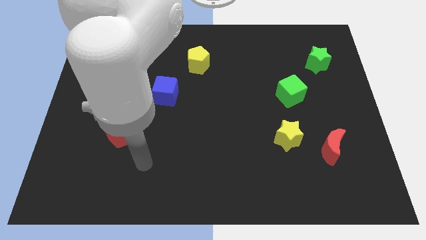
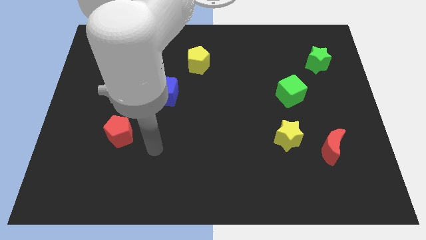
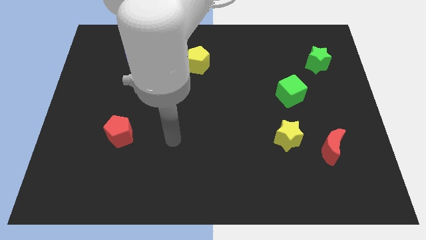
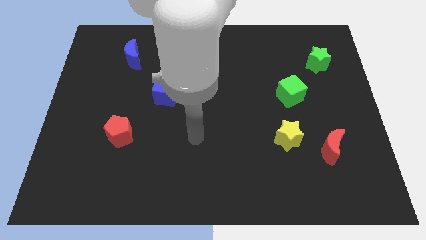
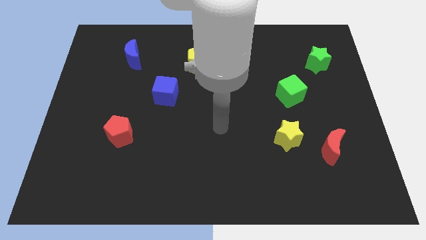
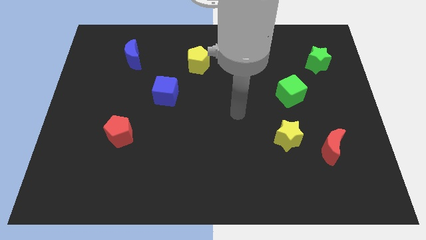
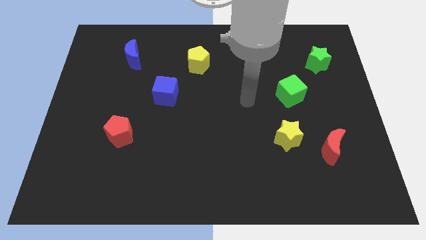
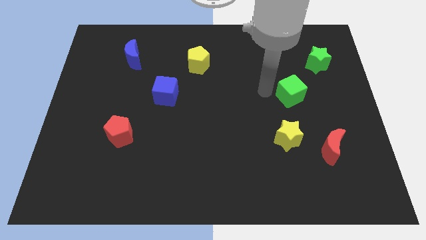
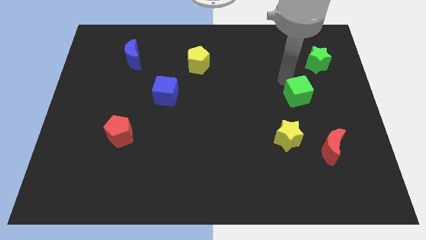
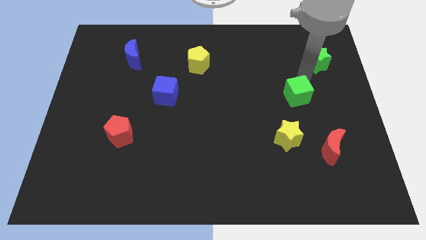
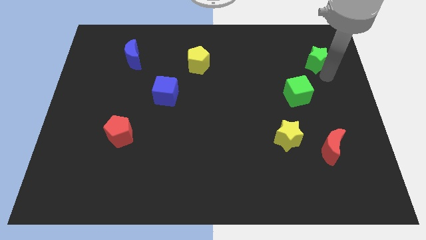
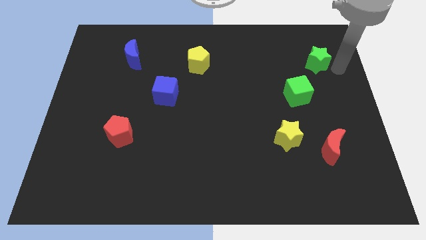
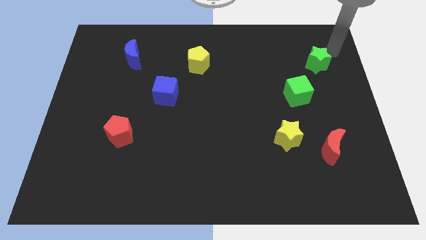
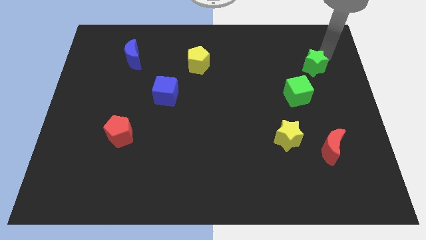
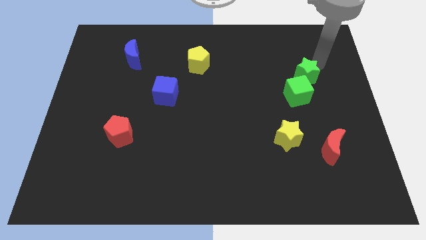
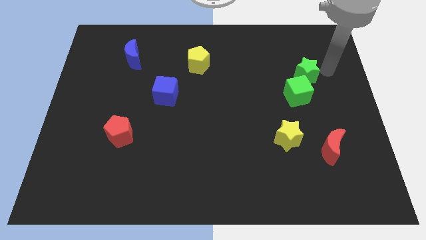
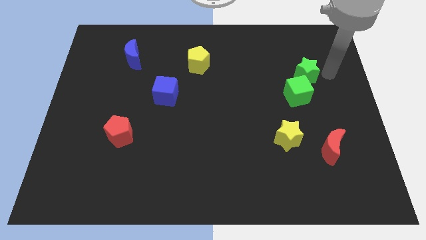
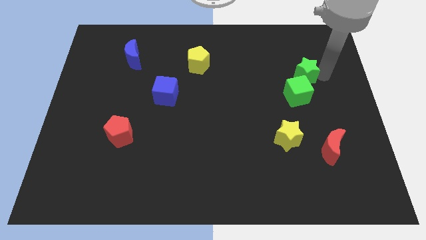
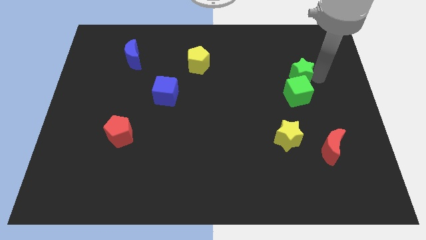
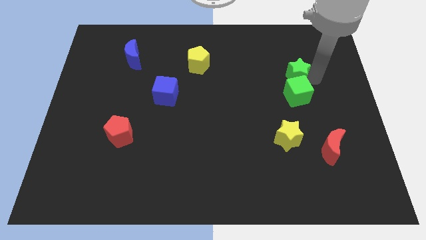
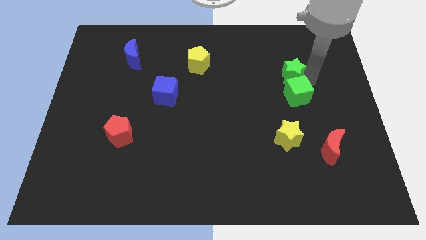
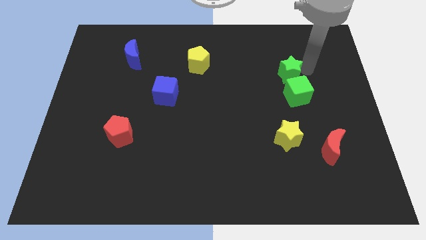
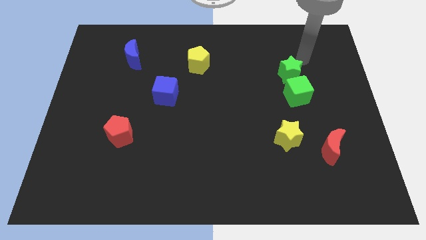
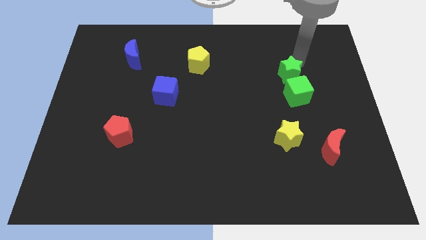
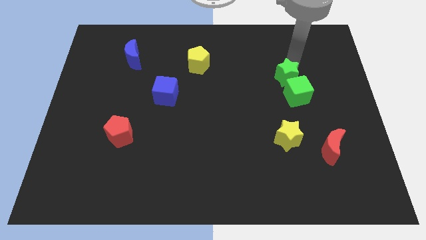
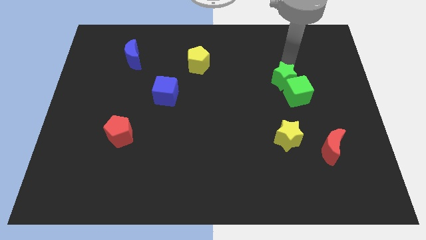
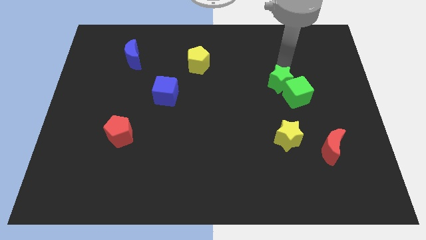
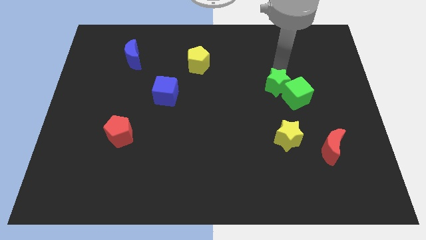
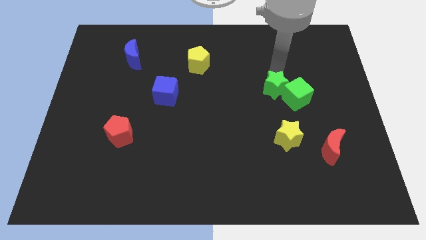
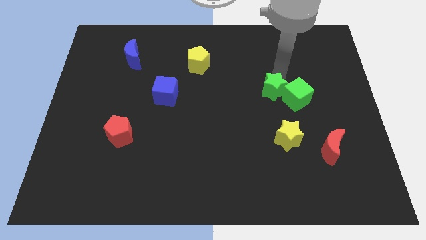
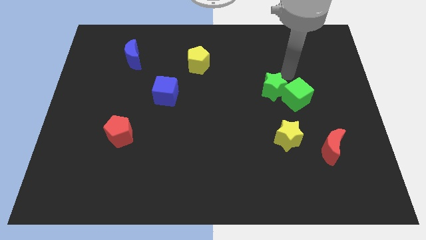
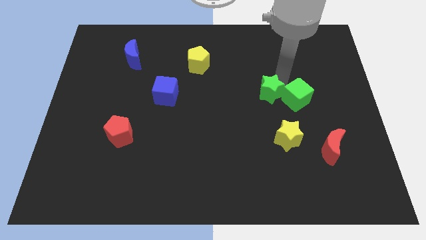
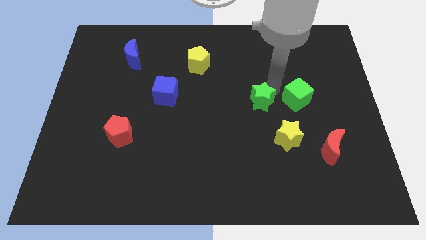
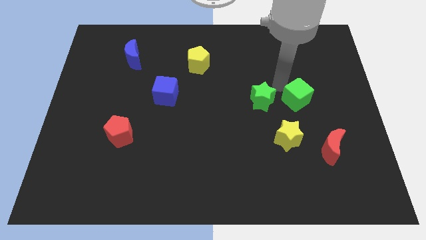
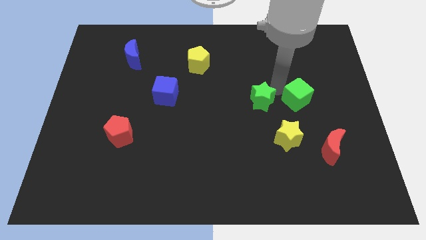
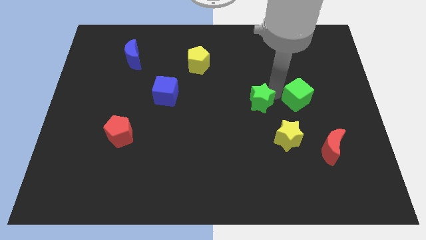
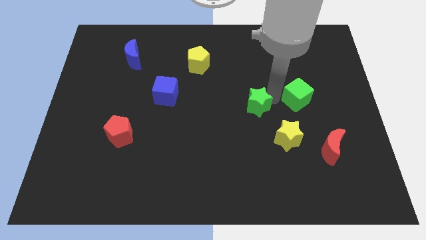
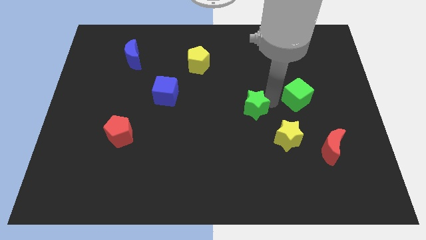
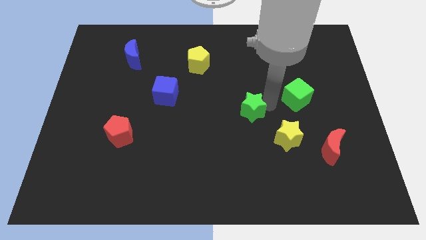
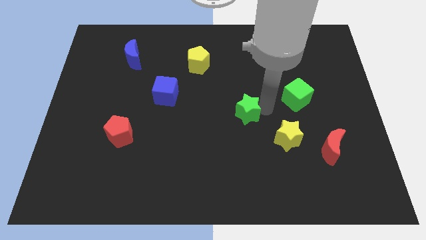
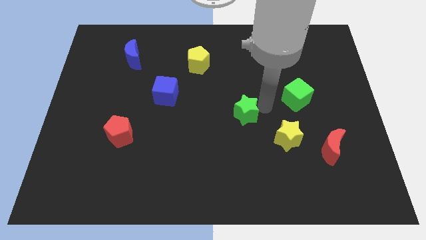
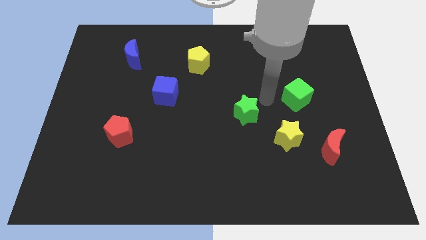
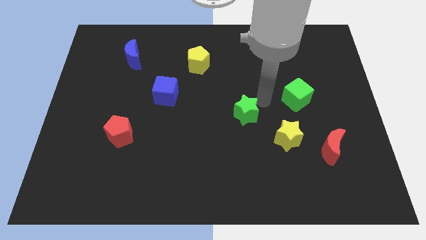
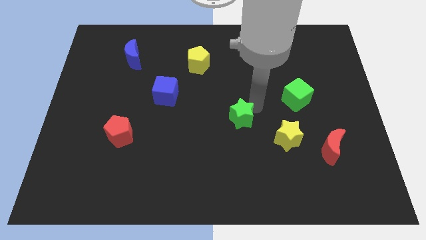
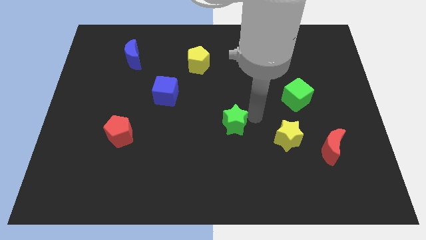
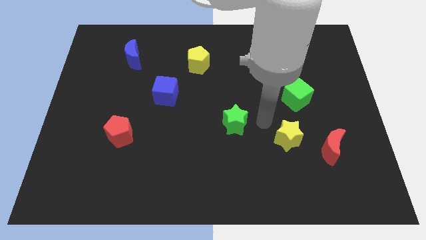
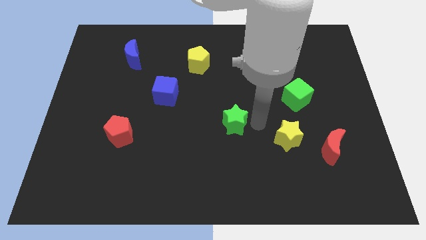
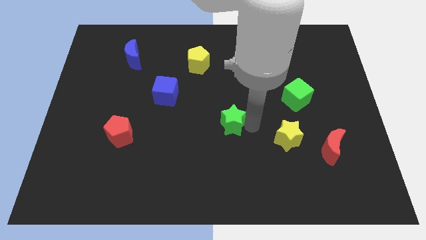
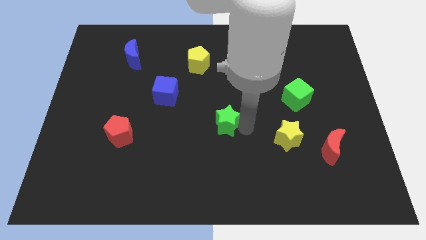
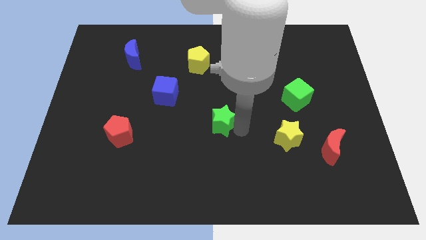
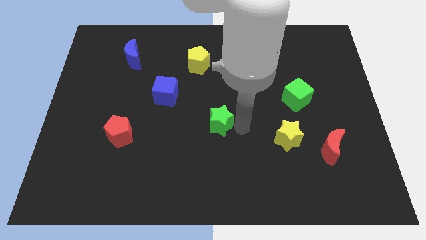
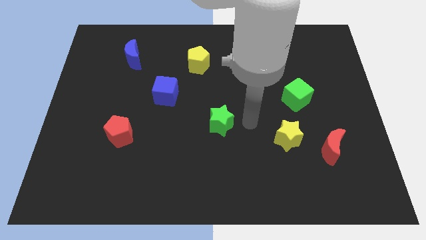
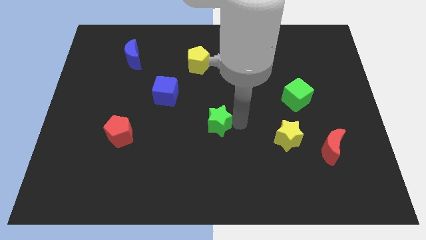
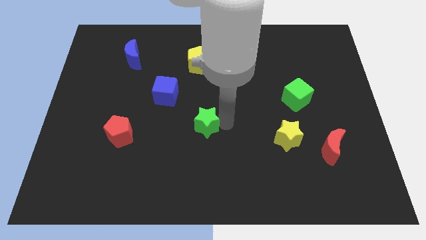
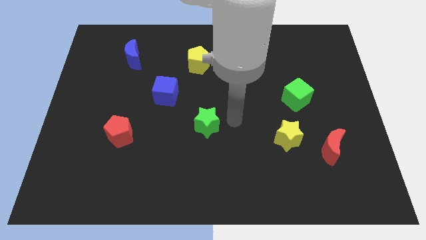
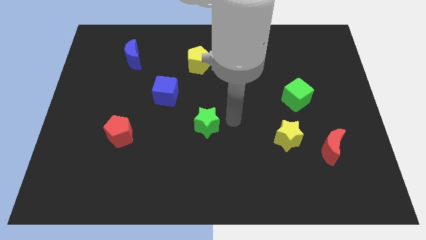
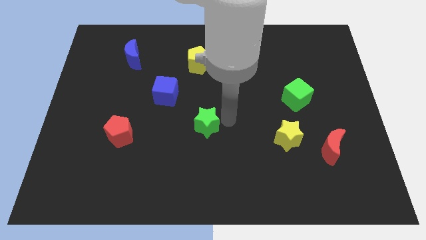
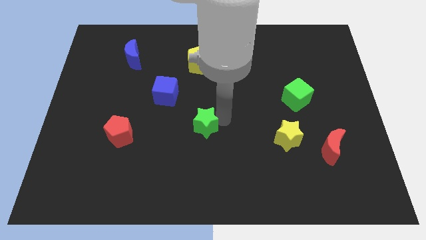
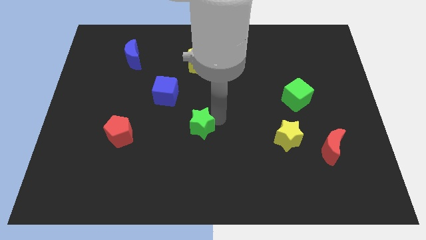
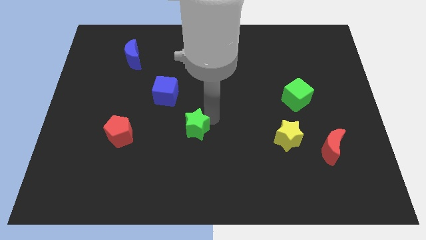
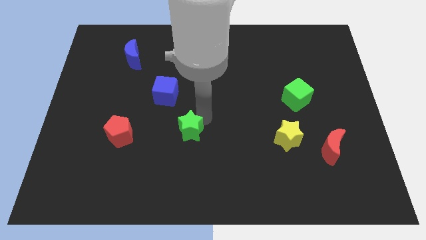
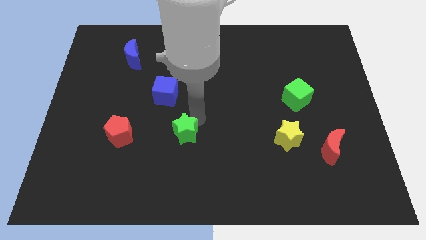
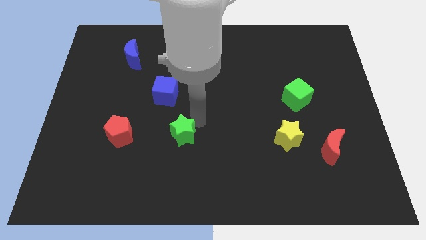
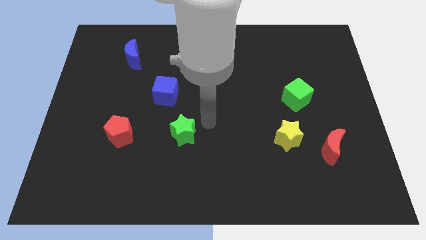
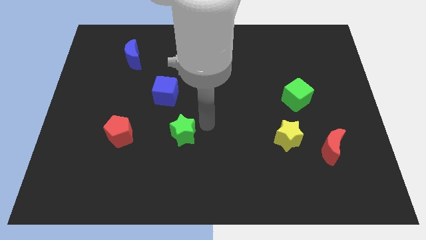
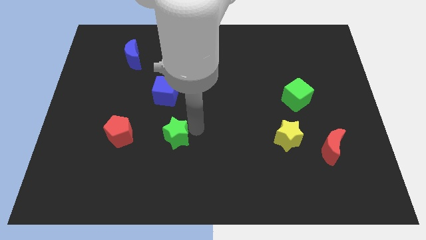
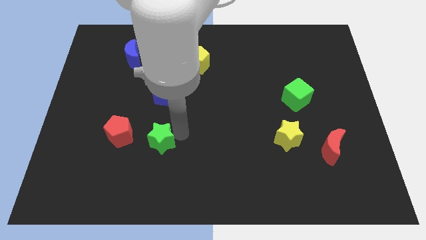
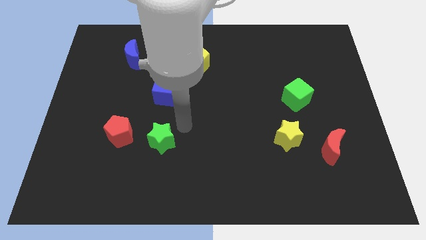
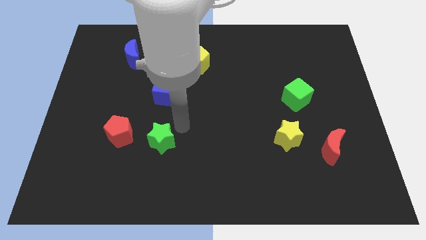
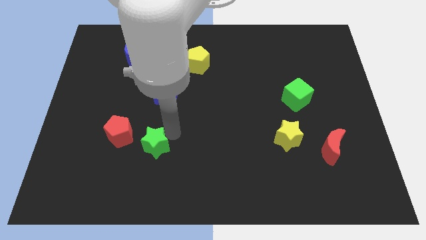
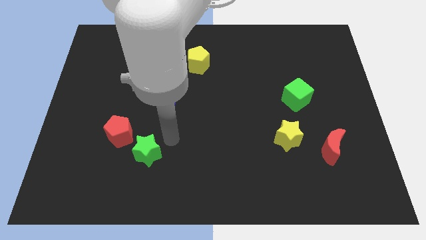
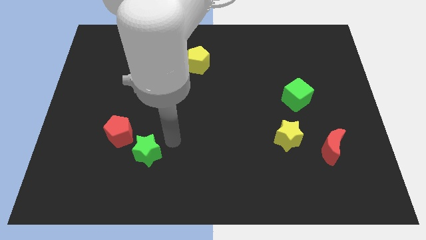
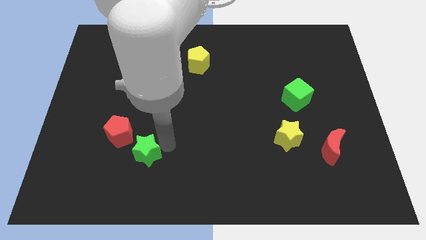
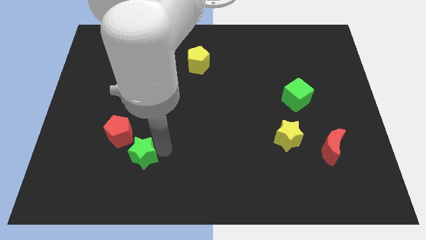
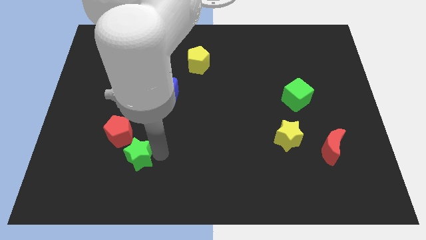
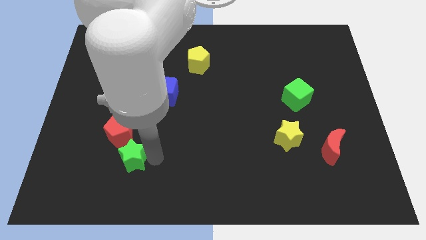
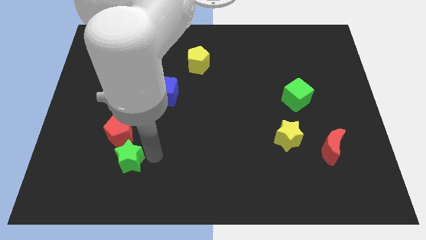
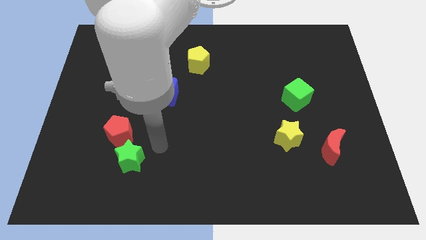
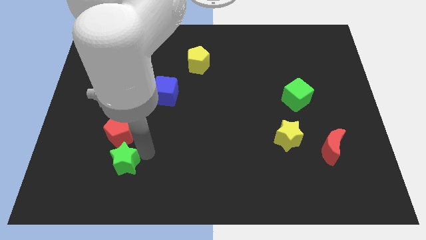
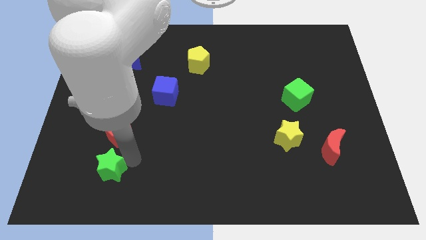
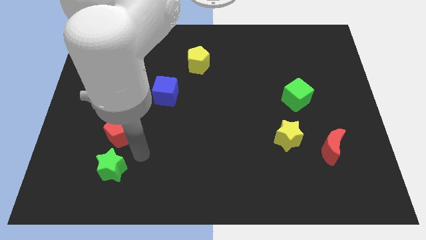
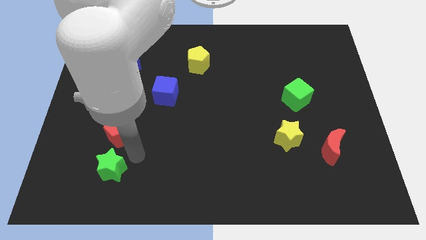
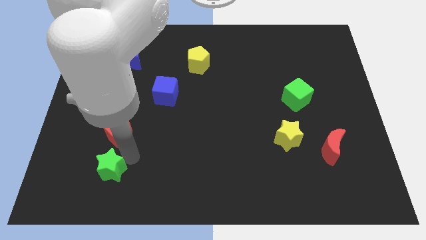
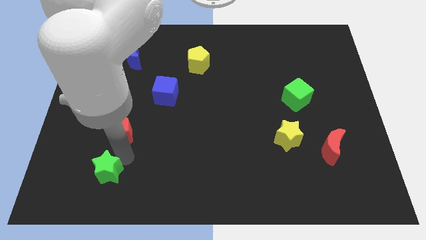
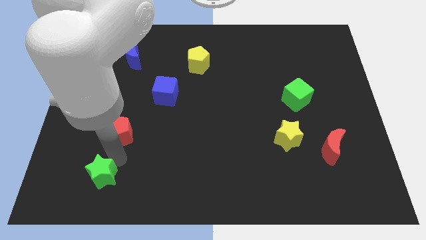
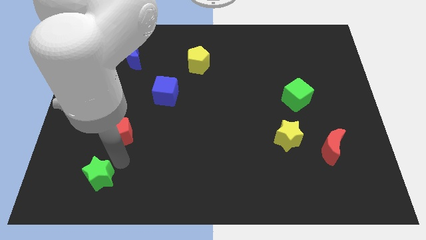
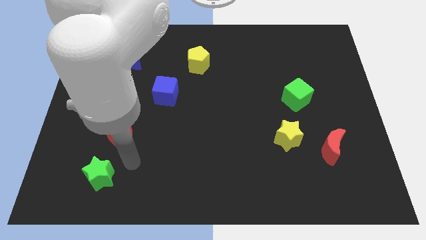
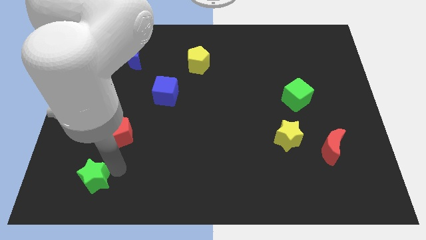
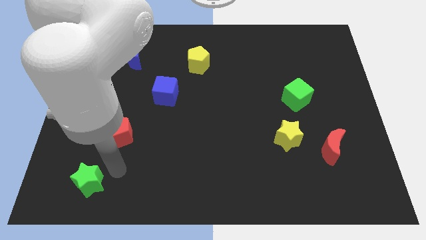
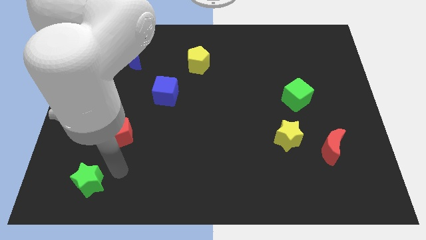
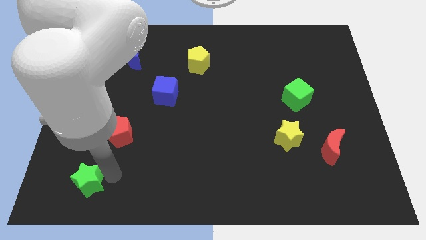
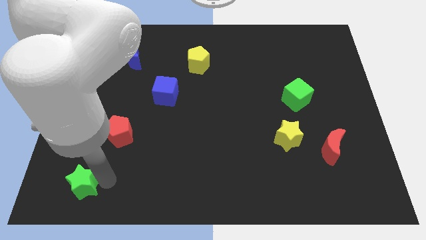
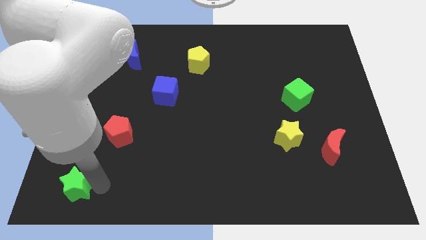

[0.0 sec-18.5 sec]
slide the green star to the bottom left corner
